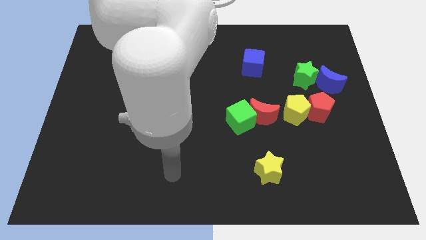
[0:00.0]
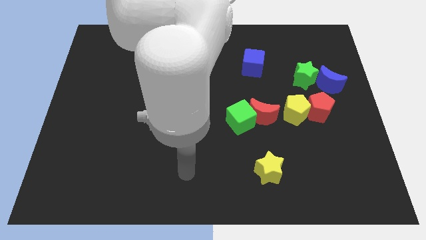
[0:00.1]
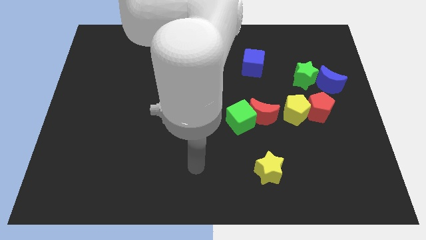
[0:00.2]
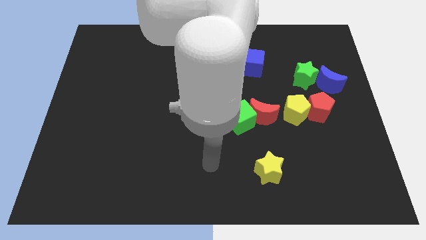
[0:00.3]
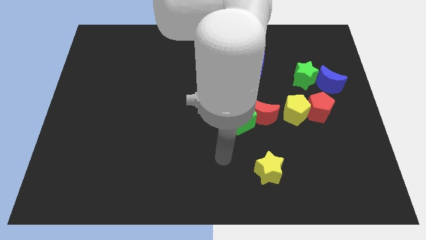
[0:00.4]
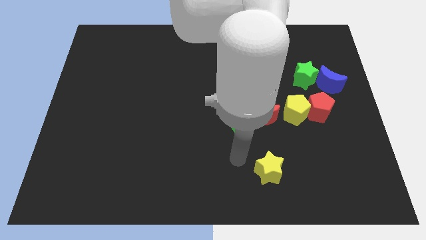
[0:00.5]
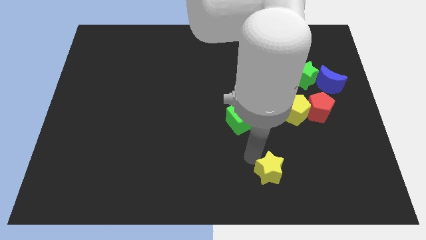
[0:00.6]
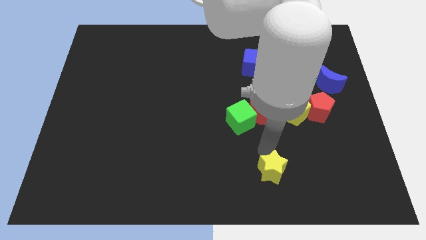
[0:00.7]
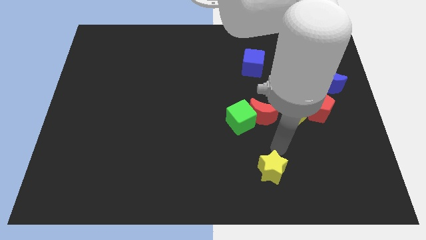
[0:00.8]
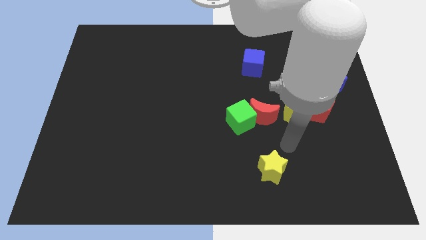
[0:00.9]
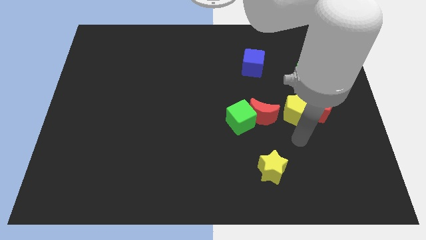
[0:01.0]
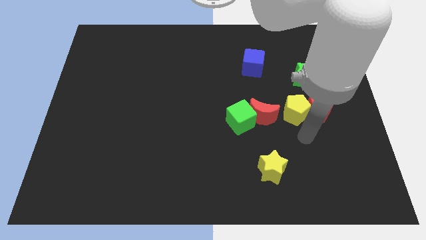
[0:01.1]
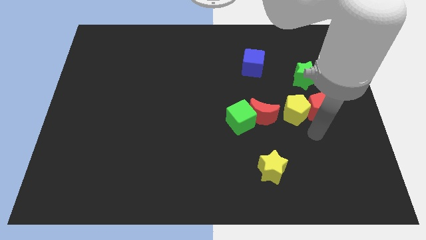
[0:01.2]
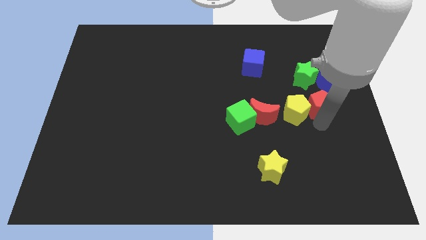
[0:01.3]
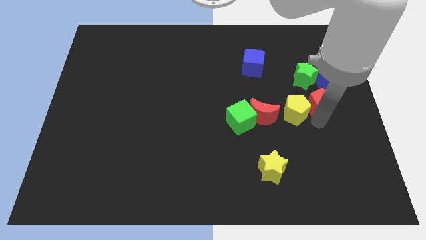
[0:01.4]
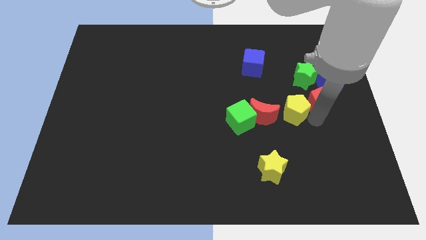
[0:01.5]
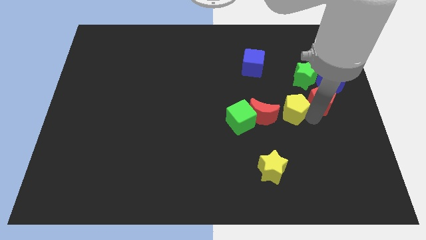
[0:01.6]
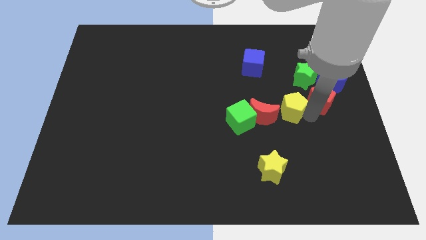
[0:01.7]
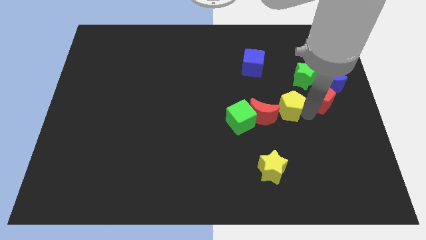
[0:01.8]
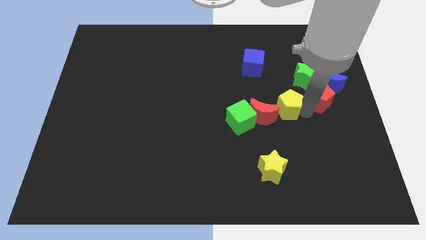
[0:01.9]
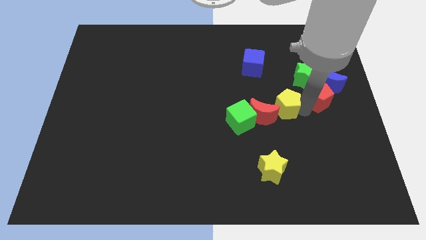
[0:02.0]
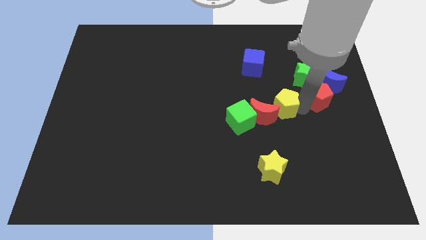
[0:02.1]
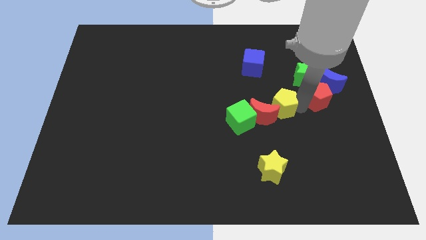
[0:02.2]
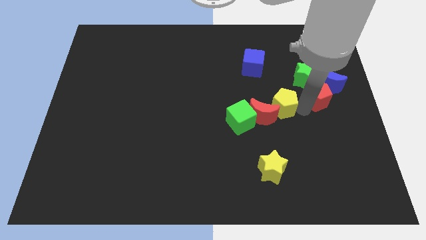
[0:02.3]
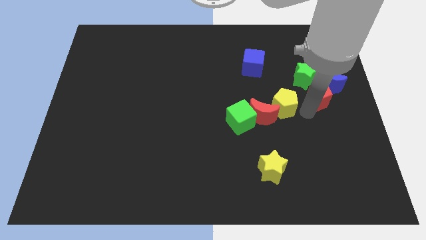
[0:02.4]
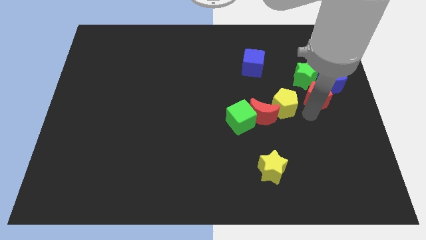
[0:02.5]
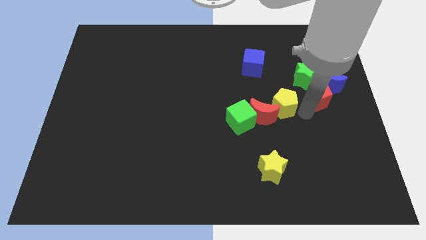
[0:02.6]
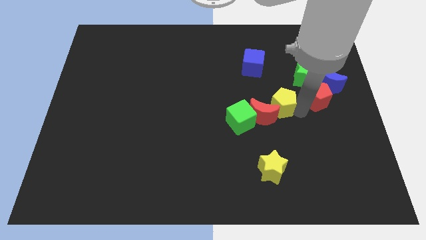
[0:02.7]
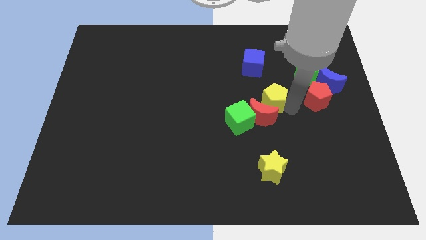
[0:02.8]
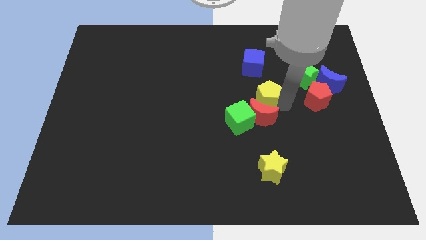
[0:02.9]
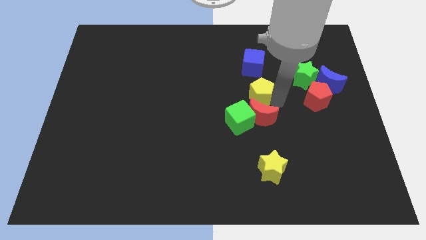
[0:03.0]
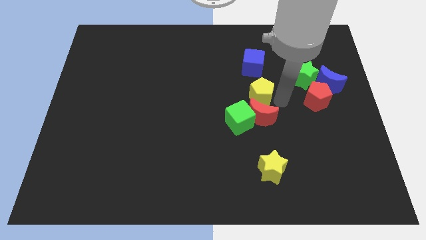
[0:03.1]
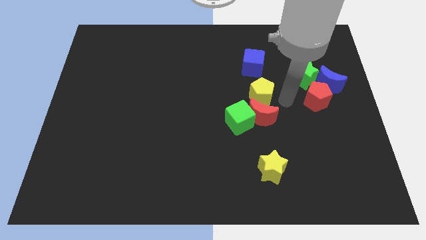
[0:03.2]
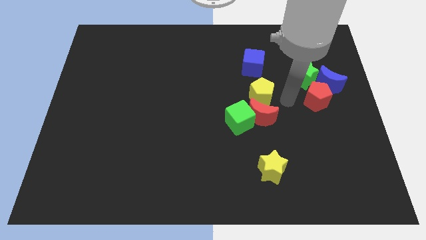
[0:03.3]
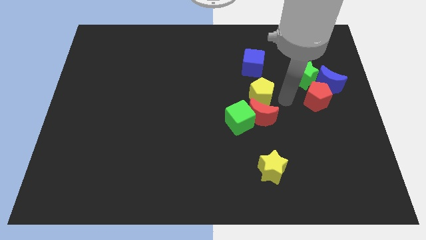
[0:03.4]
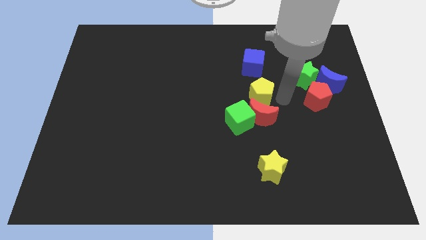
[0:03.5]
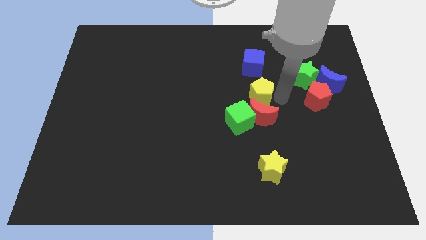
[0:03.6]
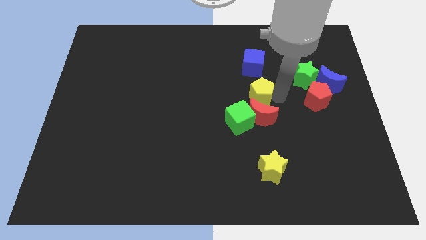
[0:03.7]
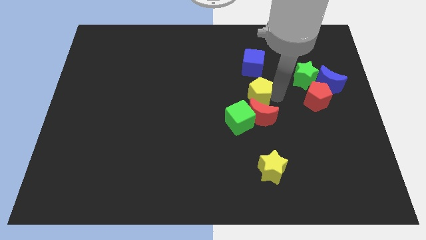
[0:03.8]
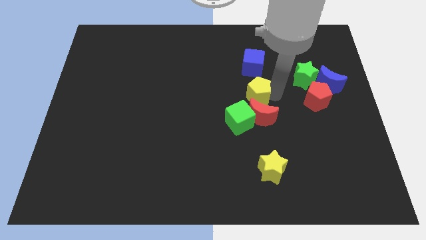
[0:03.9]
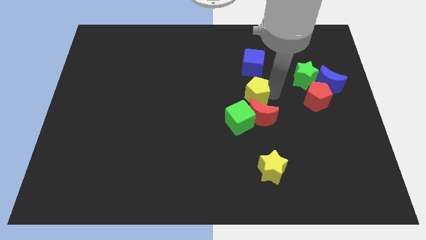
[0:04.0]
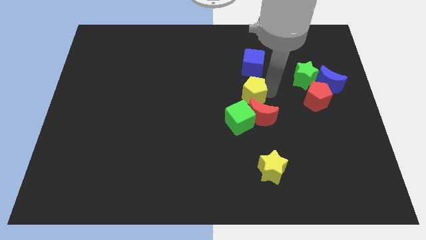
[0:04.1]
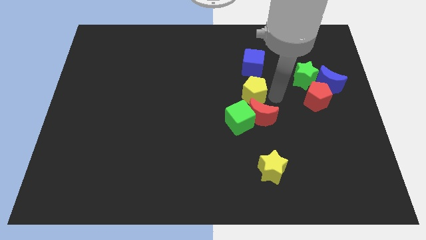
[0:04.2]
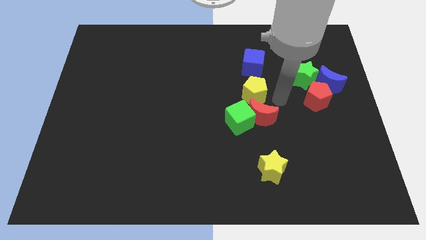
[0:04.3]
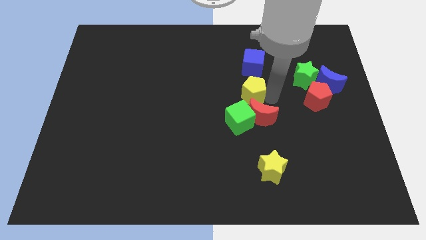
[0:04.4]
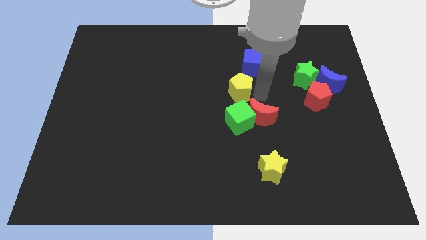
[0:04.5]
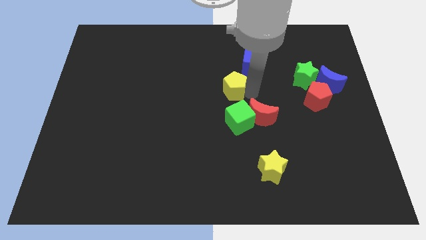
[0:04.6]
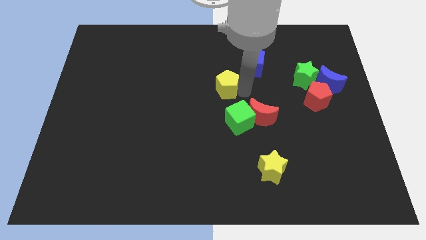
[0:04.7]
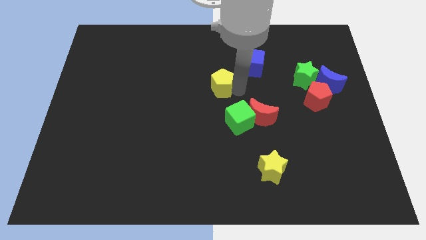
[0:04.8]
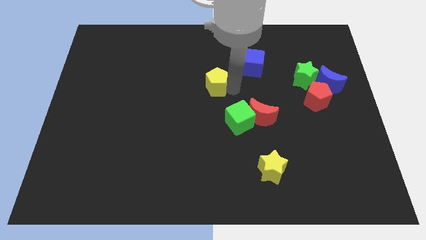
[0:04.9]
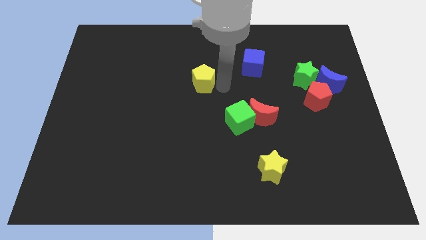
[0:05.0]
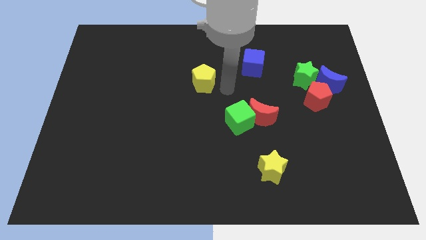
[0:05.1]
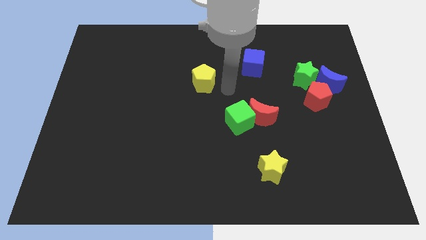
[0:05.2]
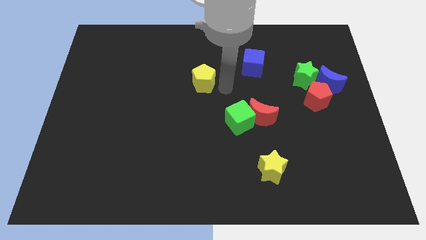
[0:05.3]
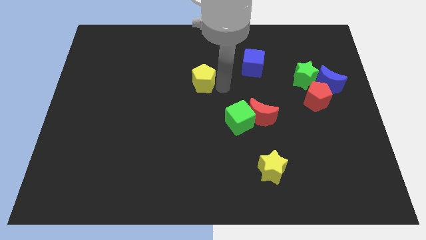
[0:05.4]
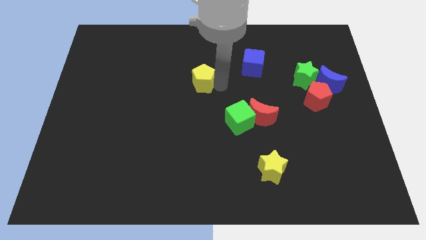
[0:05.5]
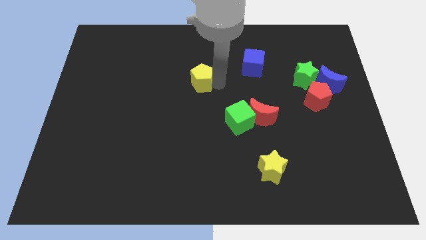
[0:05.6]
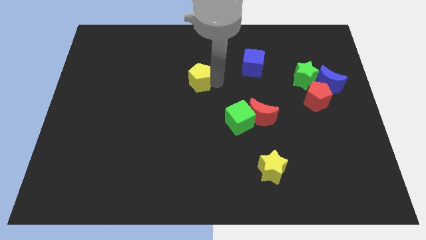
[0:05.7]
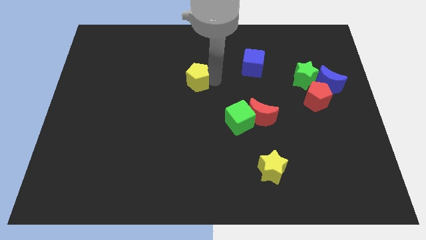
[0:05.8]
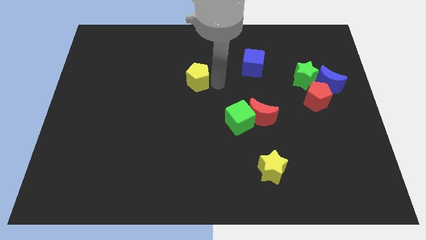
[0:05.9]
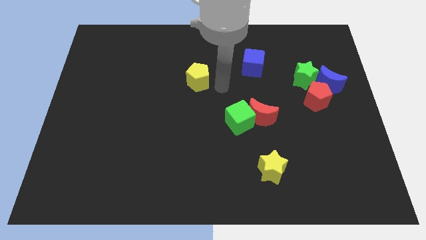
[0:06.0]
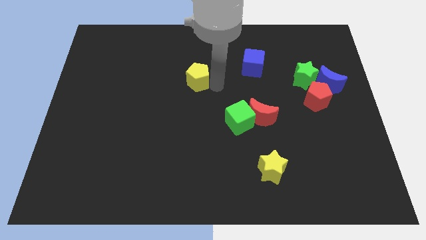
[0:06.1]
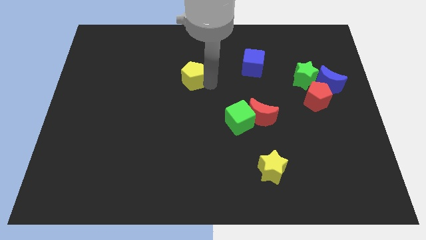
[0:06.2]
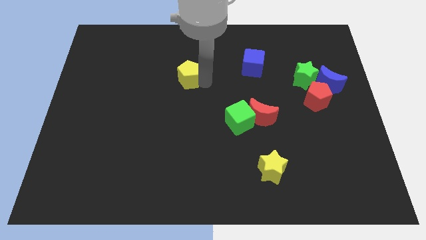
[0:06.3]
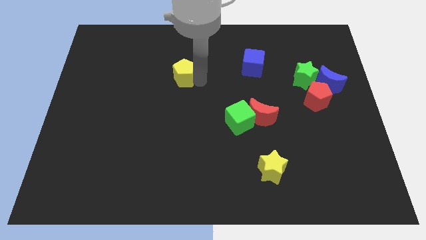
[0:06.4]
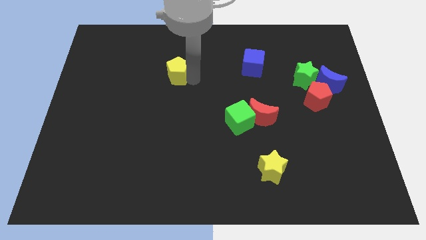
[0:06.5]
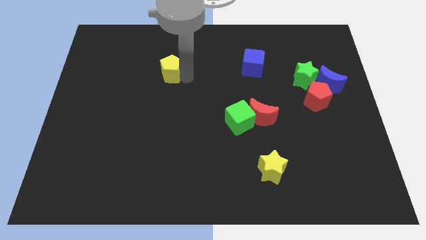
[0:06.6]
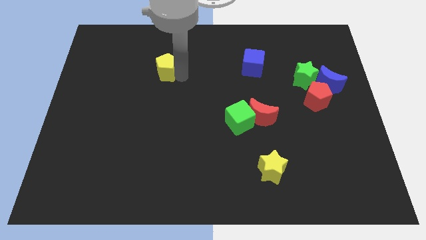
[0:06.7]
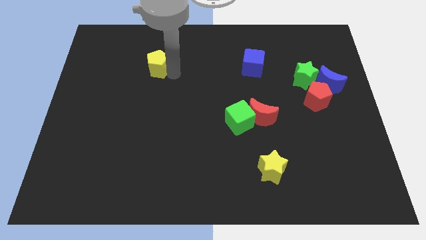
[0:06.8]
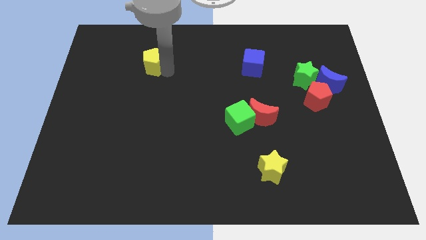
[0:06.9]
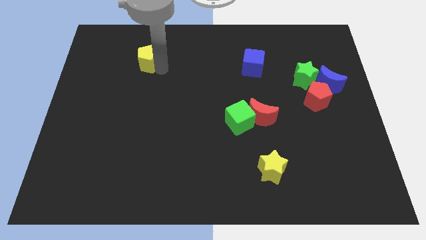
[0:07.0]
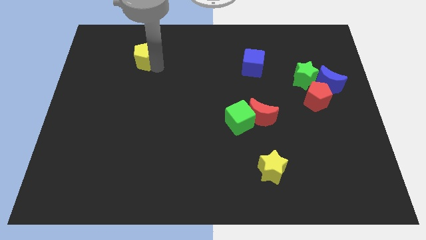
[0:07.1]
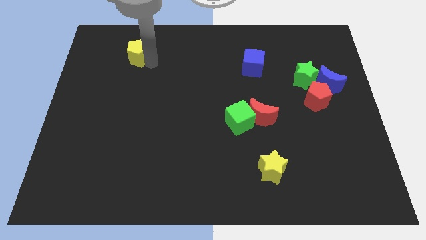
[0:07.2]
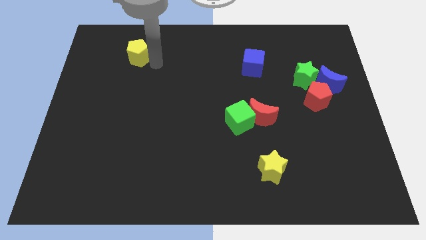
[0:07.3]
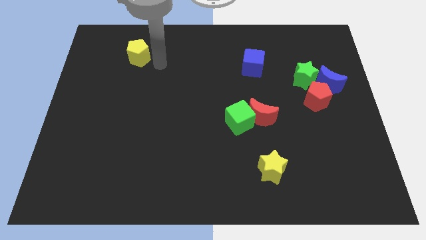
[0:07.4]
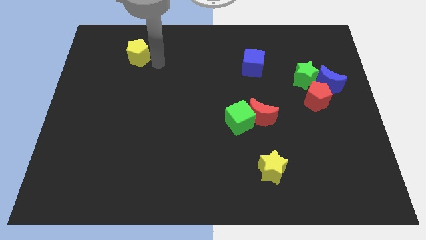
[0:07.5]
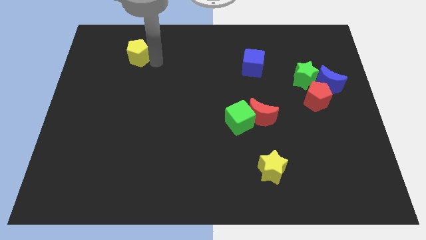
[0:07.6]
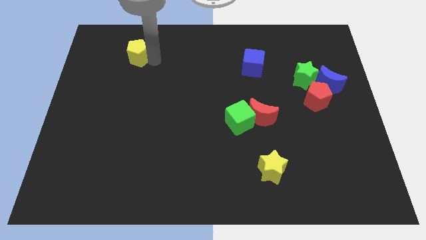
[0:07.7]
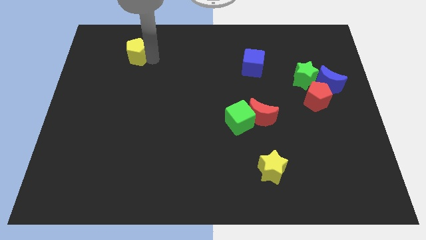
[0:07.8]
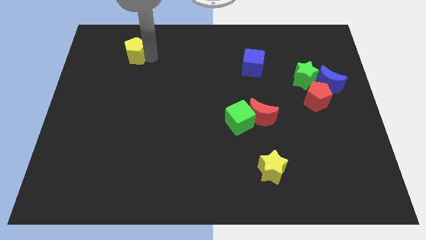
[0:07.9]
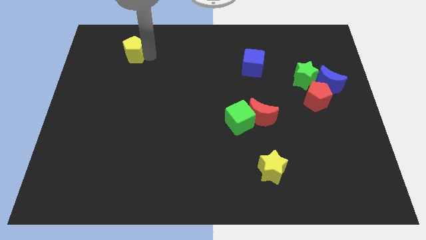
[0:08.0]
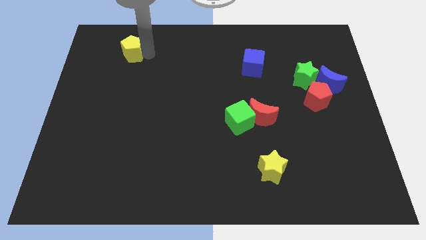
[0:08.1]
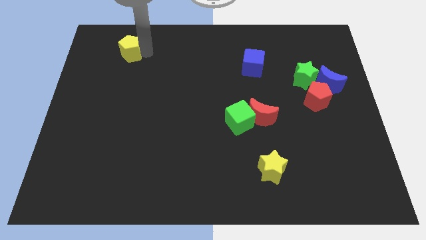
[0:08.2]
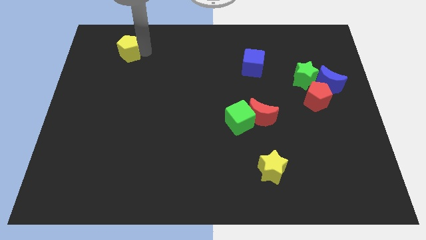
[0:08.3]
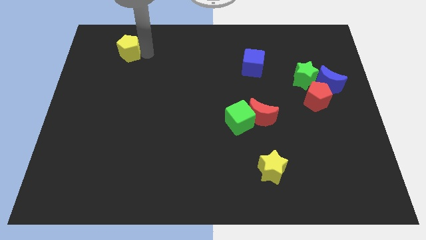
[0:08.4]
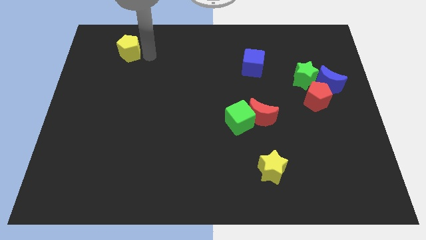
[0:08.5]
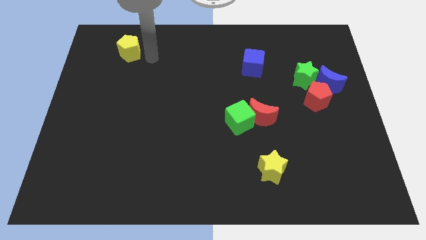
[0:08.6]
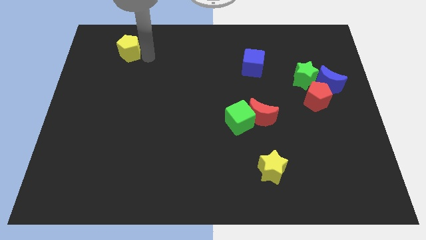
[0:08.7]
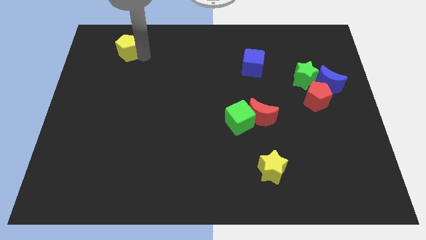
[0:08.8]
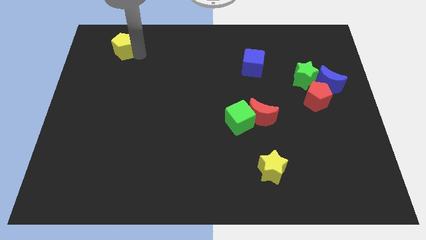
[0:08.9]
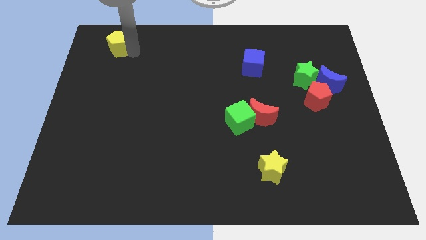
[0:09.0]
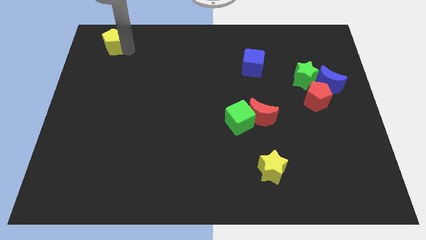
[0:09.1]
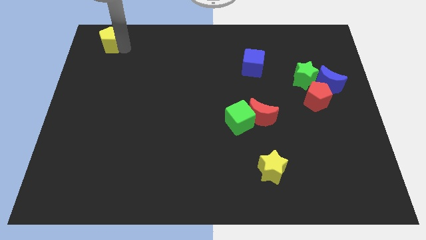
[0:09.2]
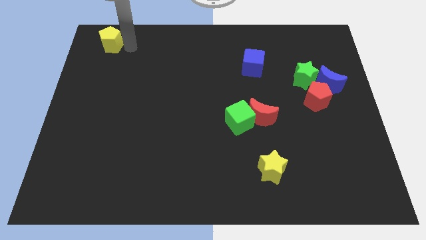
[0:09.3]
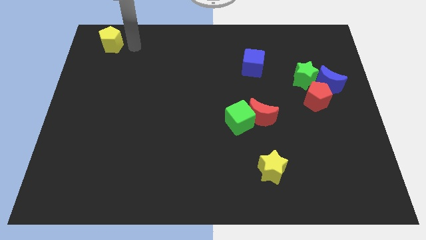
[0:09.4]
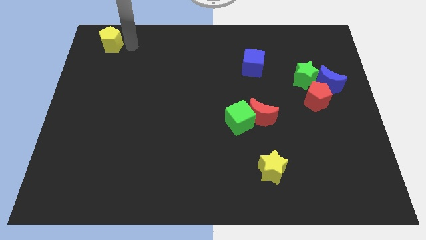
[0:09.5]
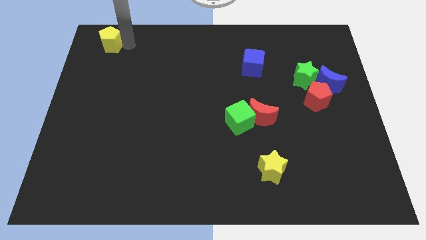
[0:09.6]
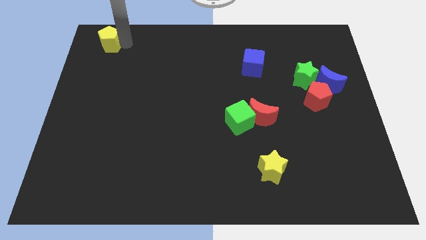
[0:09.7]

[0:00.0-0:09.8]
move the yellow pentagon to the top left corner
